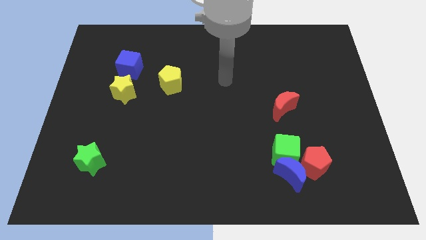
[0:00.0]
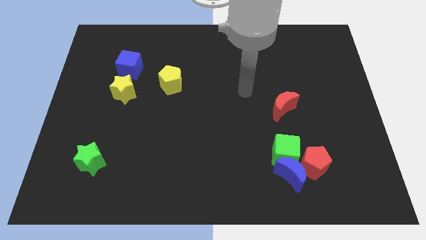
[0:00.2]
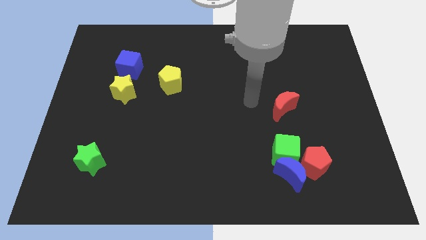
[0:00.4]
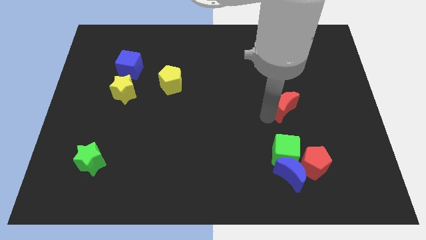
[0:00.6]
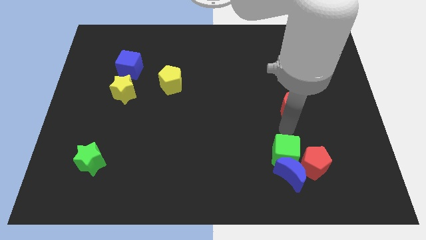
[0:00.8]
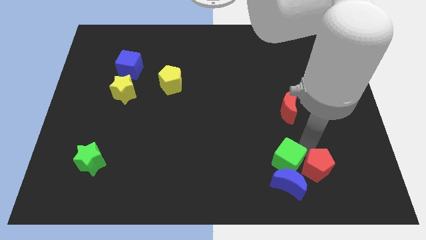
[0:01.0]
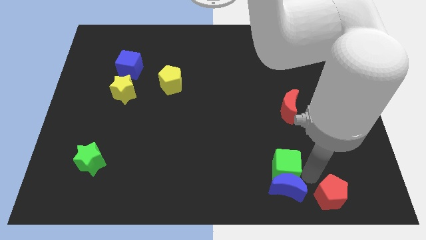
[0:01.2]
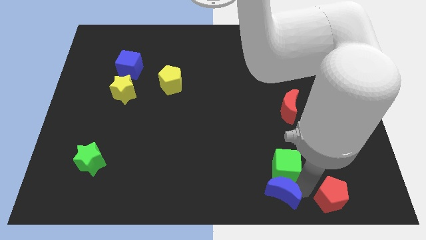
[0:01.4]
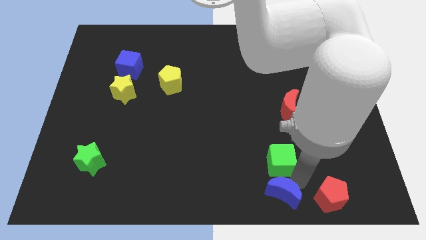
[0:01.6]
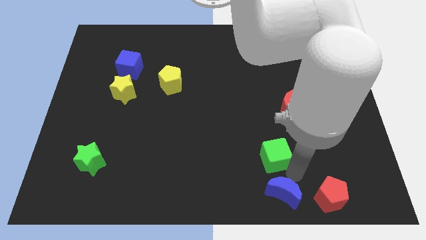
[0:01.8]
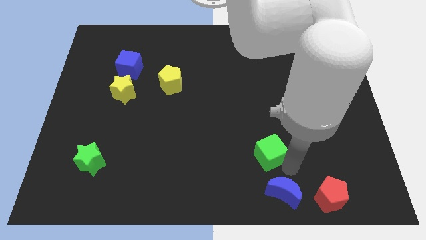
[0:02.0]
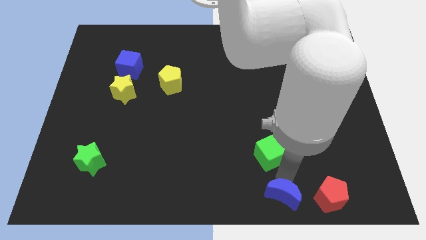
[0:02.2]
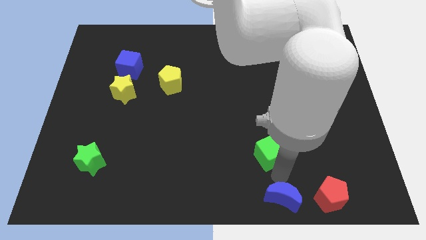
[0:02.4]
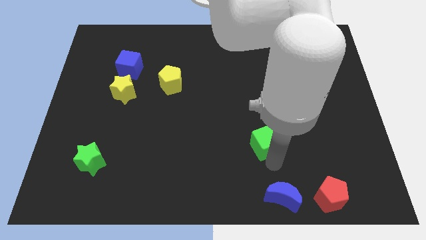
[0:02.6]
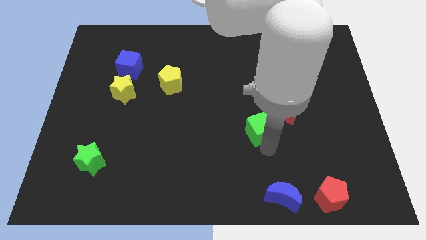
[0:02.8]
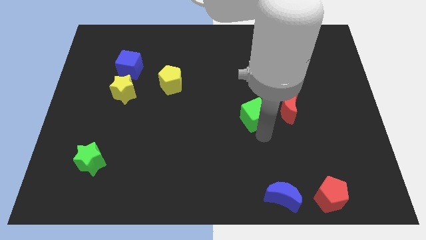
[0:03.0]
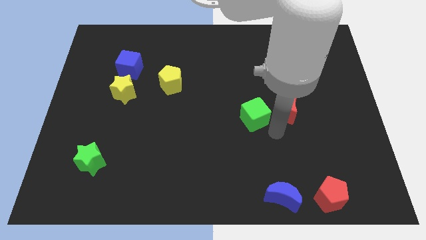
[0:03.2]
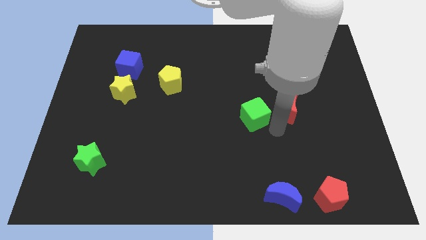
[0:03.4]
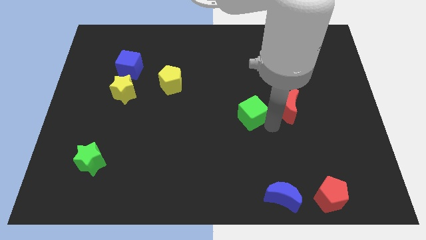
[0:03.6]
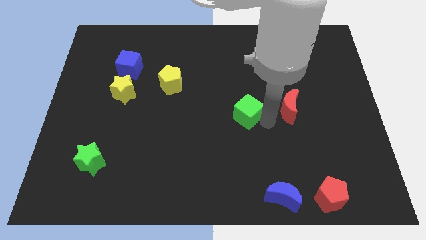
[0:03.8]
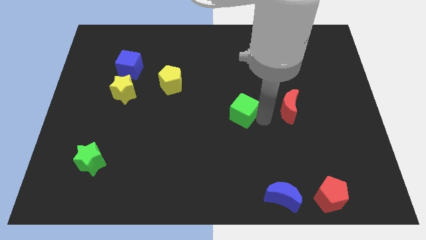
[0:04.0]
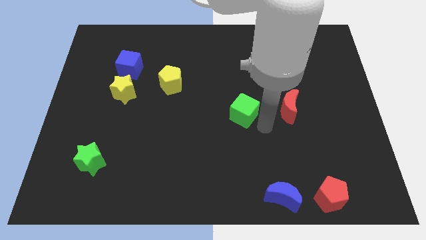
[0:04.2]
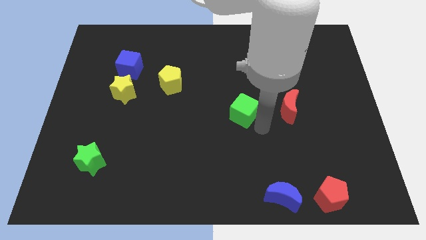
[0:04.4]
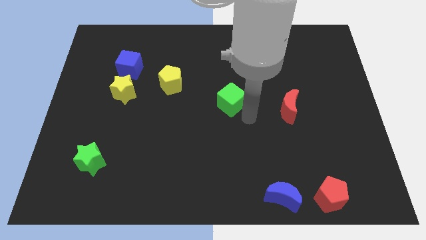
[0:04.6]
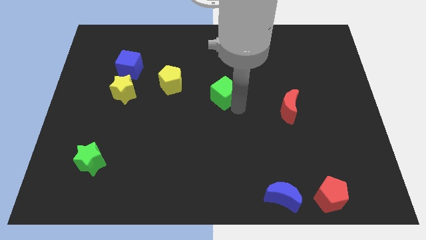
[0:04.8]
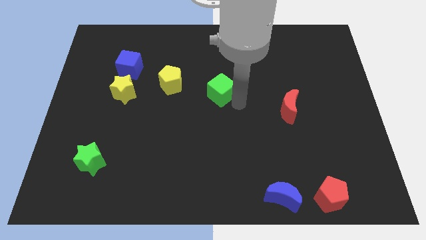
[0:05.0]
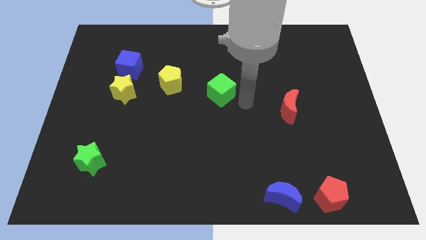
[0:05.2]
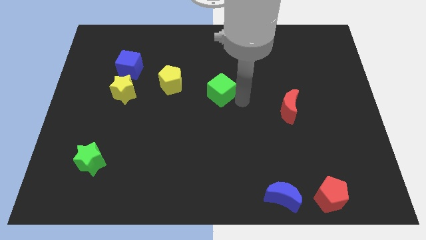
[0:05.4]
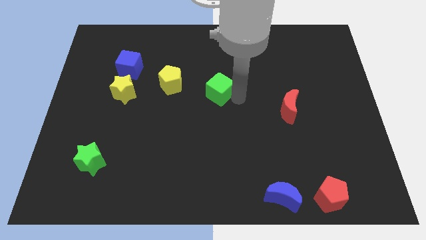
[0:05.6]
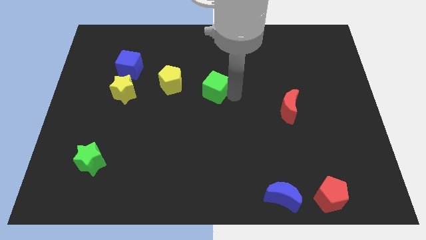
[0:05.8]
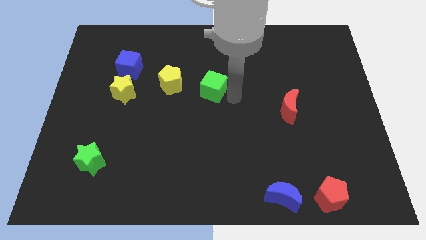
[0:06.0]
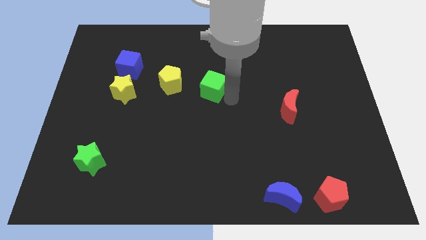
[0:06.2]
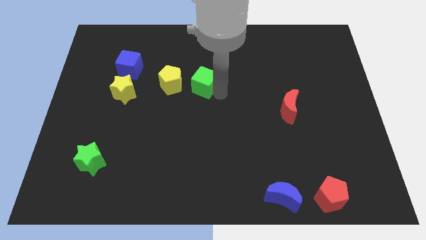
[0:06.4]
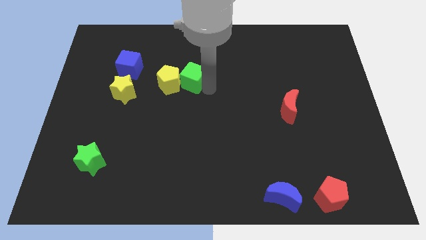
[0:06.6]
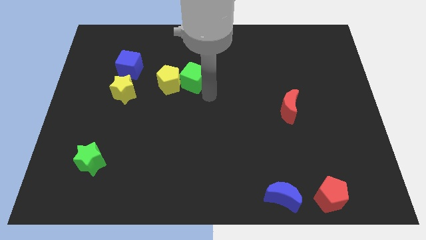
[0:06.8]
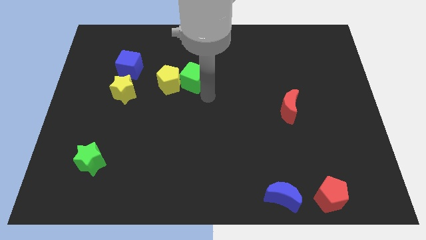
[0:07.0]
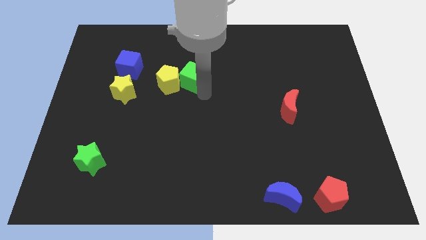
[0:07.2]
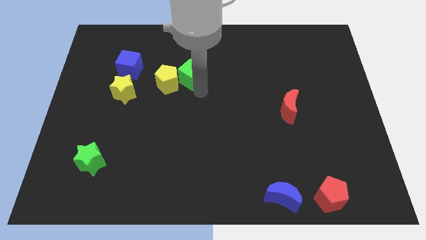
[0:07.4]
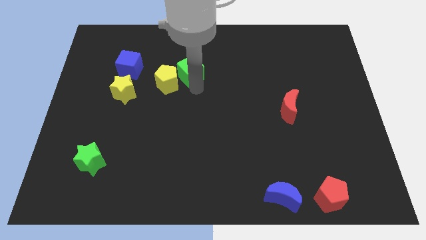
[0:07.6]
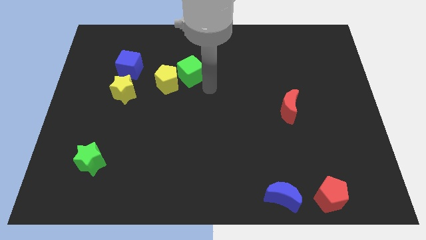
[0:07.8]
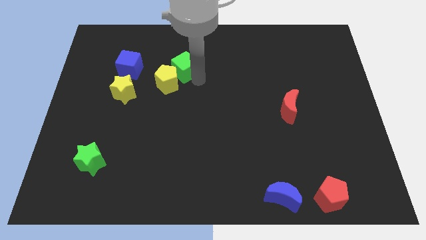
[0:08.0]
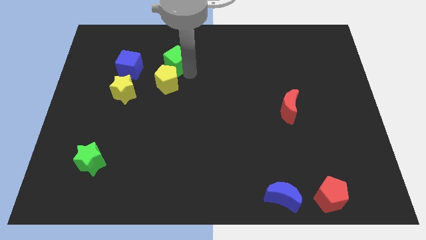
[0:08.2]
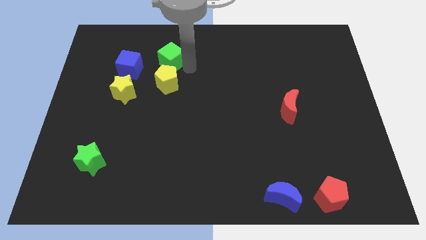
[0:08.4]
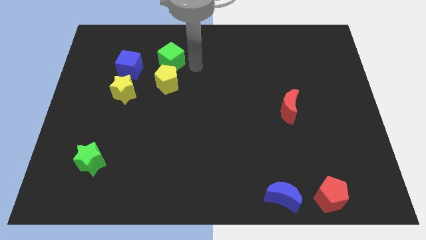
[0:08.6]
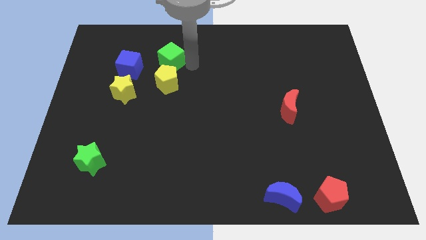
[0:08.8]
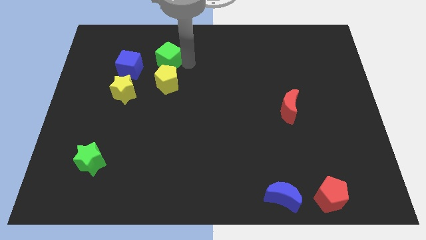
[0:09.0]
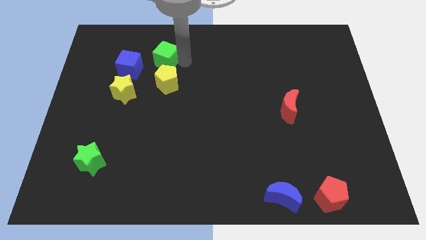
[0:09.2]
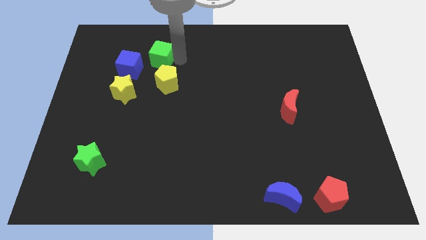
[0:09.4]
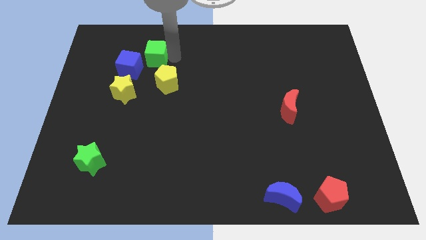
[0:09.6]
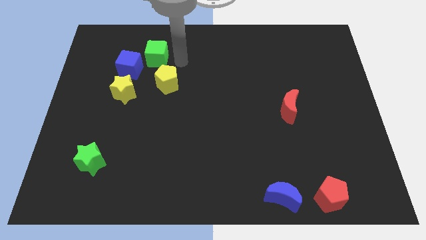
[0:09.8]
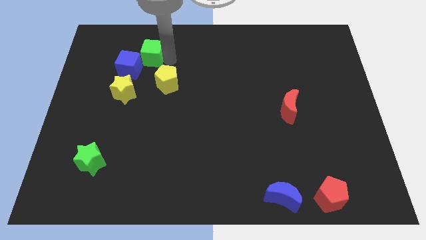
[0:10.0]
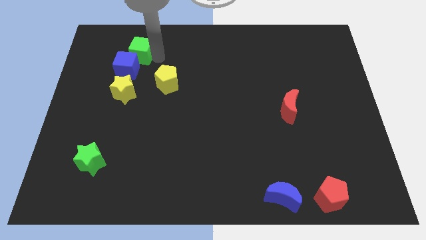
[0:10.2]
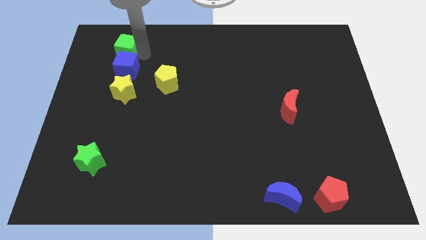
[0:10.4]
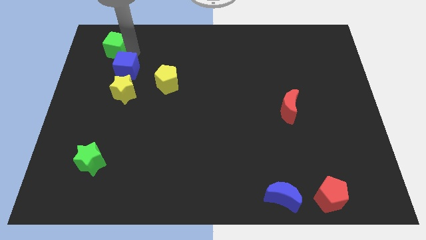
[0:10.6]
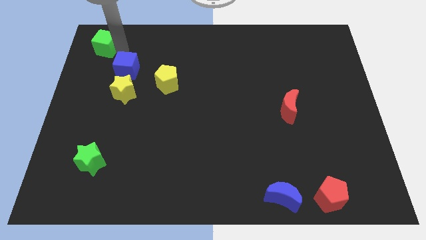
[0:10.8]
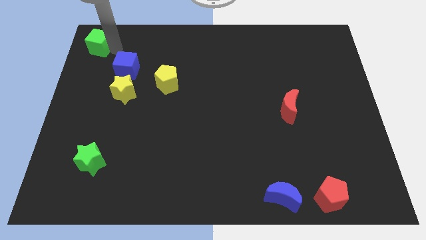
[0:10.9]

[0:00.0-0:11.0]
push the green cube to the top left of the board

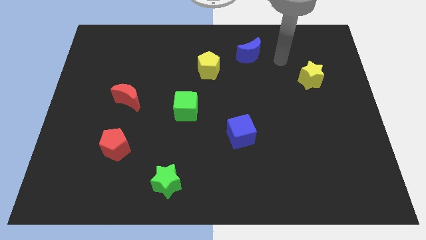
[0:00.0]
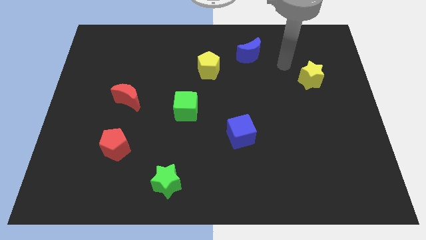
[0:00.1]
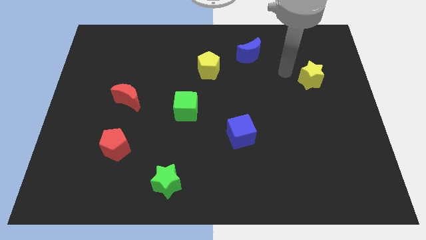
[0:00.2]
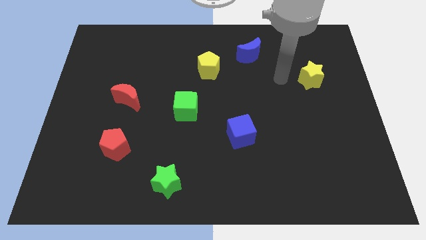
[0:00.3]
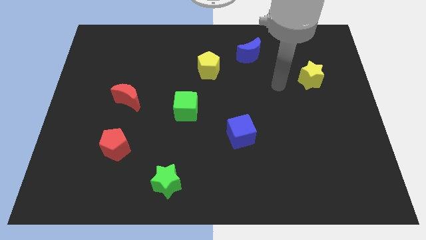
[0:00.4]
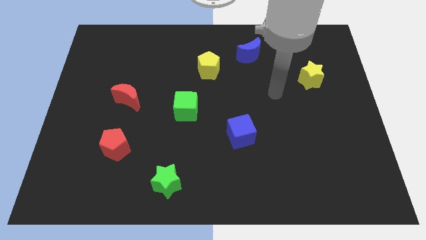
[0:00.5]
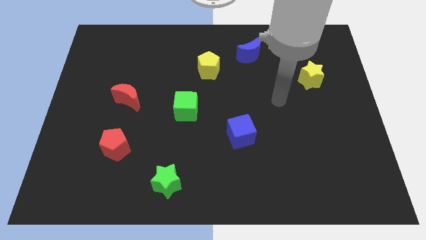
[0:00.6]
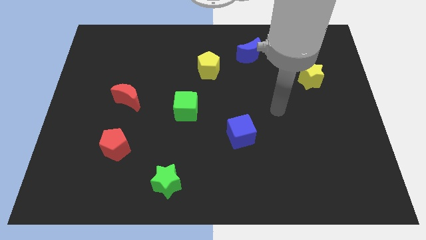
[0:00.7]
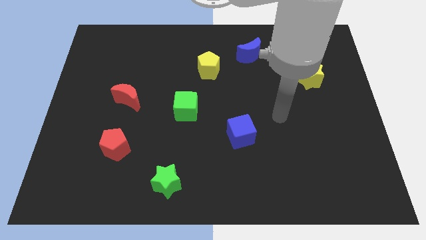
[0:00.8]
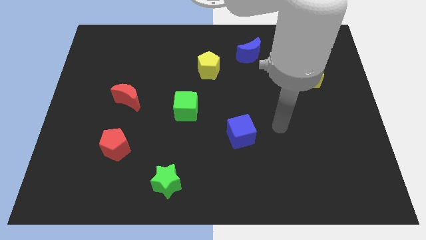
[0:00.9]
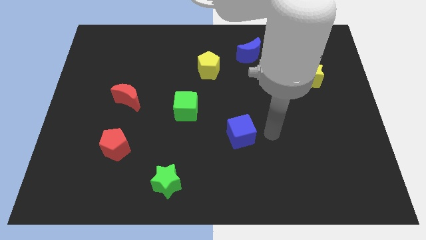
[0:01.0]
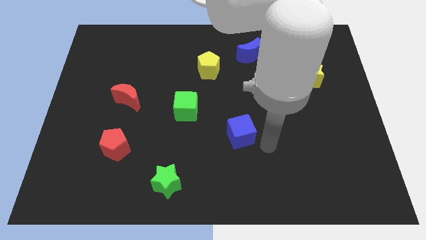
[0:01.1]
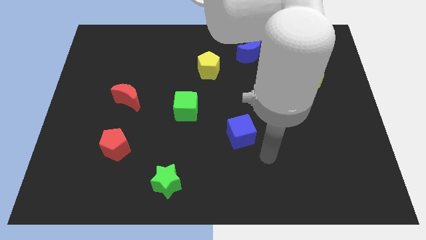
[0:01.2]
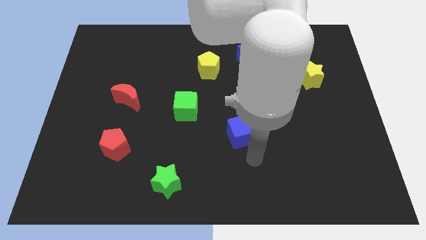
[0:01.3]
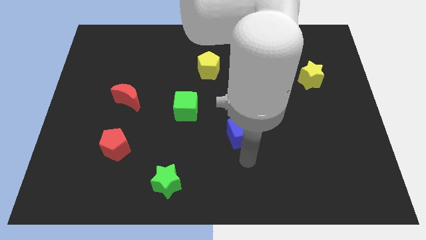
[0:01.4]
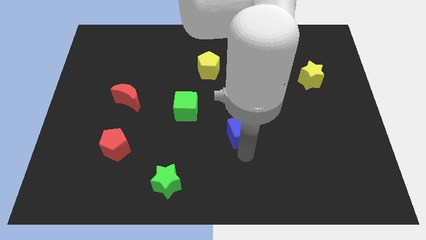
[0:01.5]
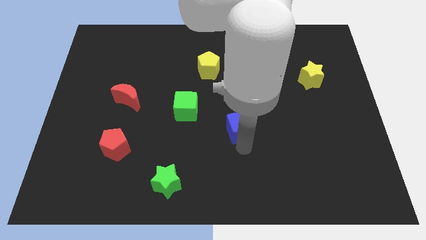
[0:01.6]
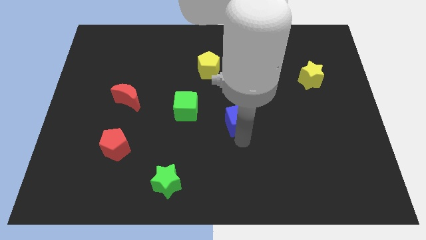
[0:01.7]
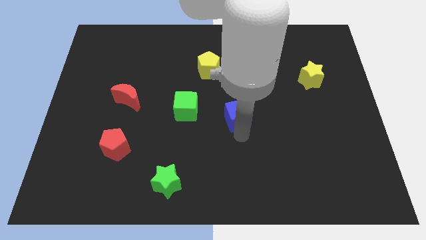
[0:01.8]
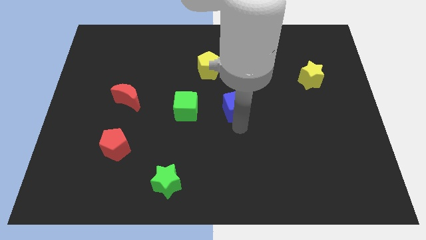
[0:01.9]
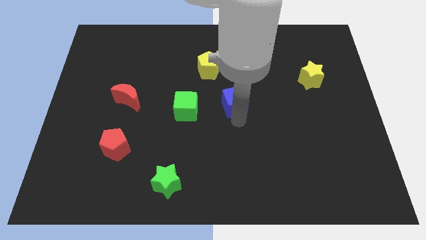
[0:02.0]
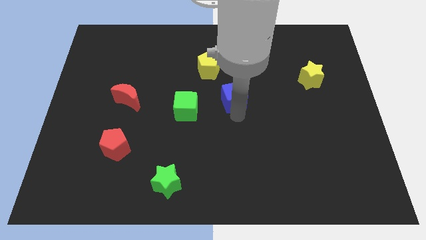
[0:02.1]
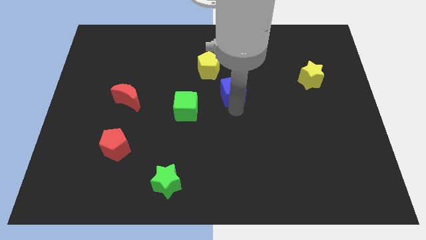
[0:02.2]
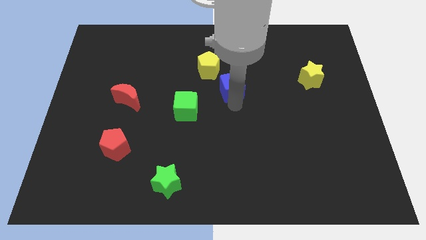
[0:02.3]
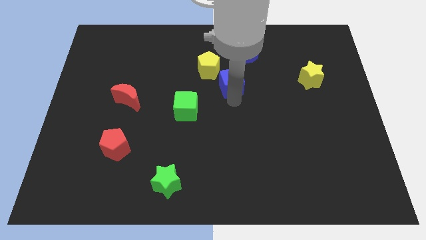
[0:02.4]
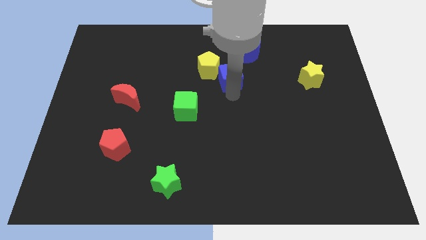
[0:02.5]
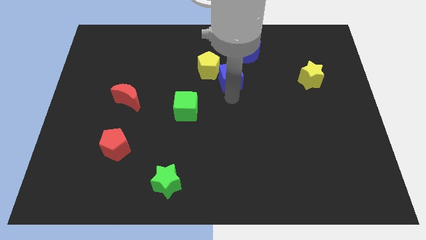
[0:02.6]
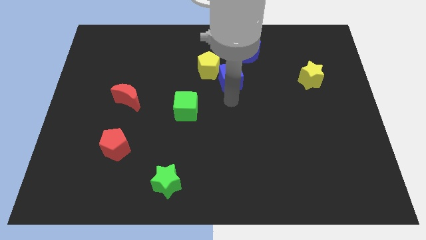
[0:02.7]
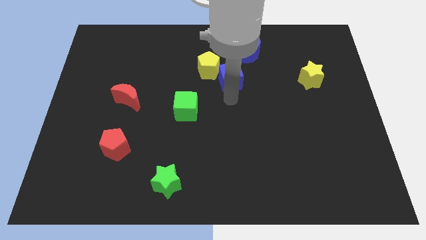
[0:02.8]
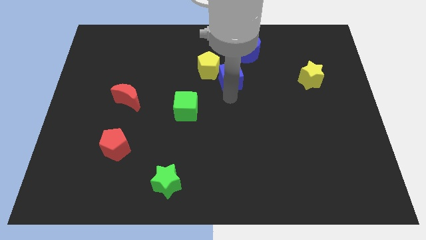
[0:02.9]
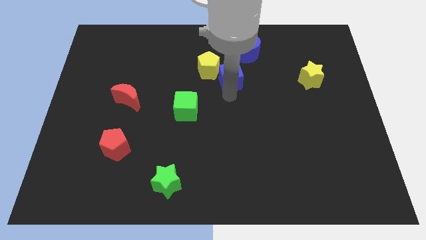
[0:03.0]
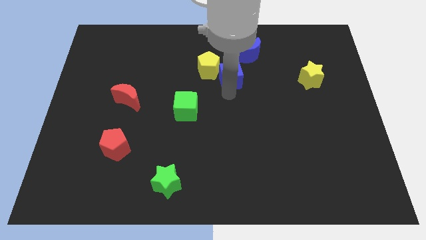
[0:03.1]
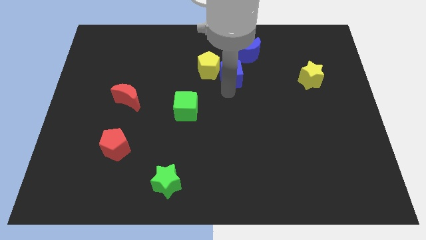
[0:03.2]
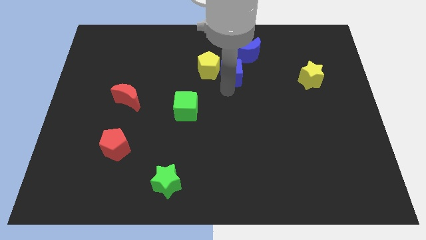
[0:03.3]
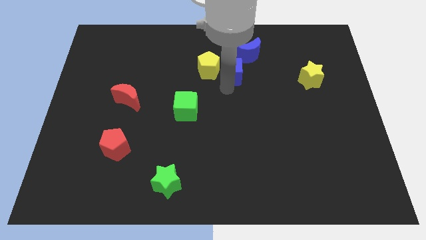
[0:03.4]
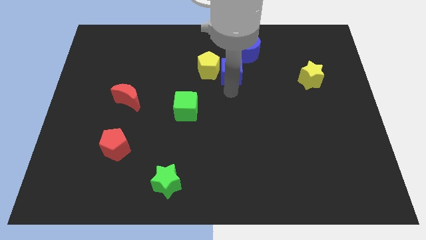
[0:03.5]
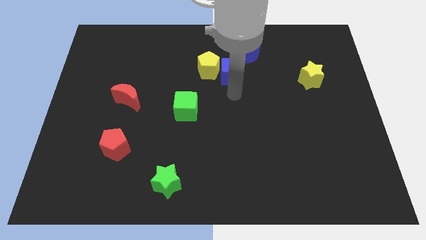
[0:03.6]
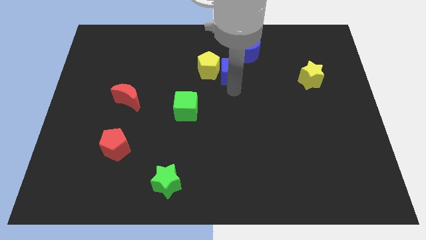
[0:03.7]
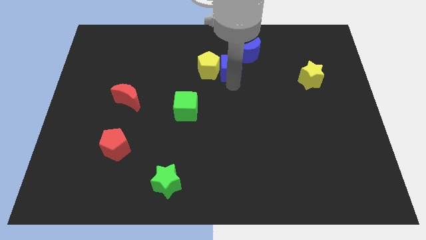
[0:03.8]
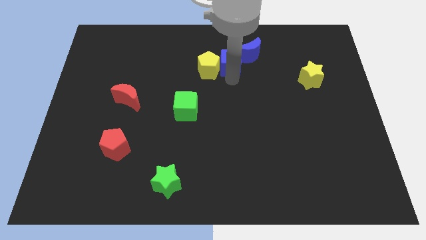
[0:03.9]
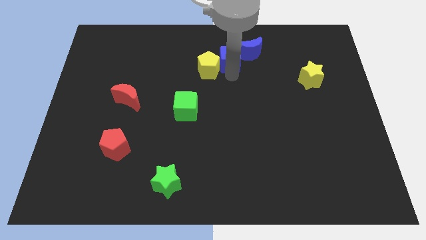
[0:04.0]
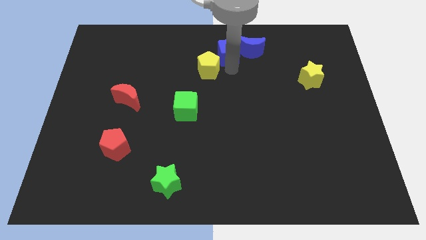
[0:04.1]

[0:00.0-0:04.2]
move the blue cube to the towards your base
